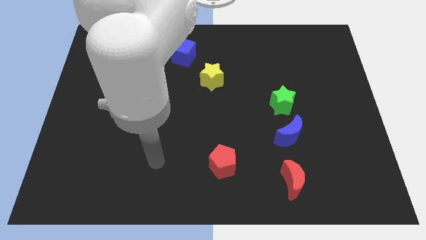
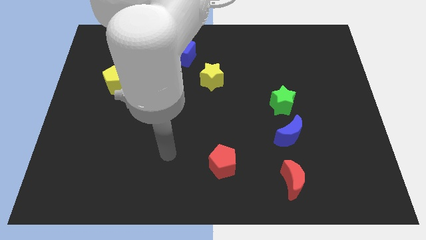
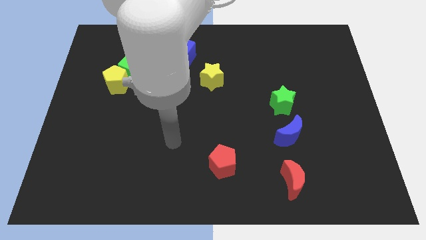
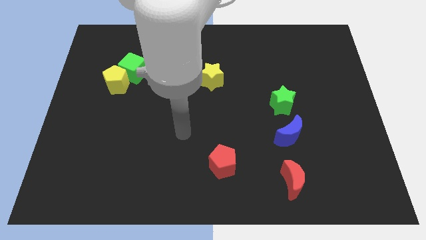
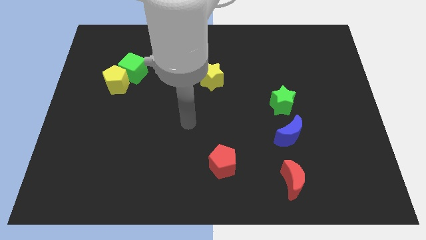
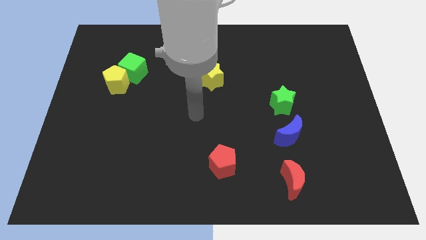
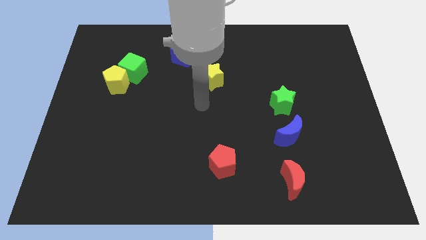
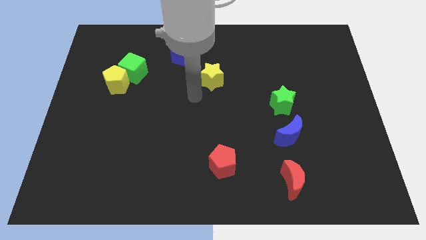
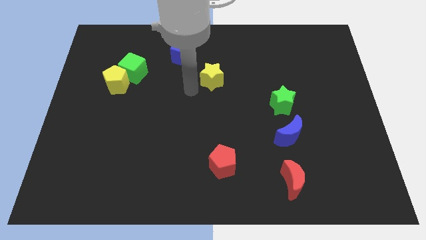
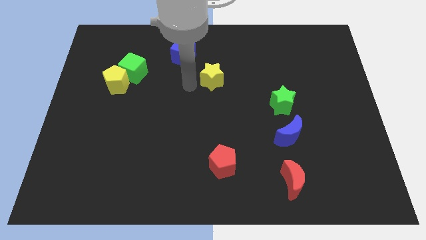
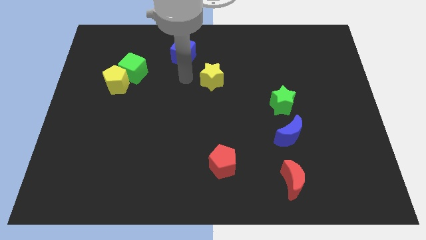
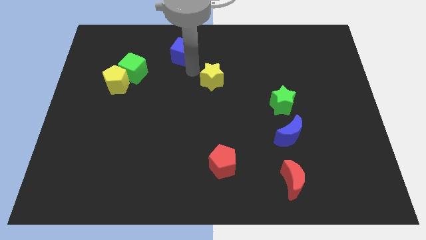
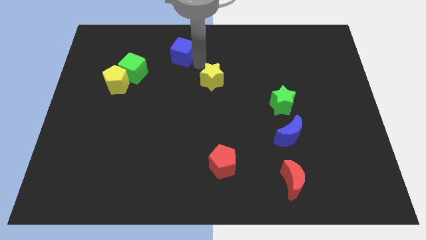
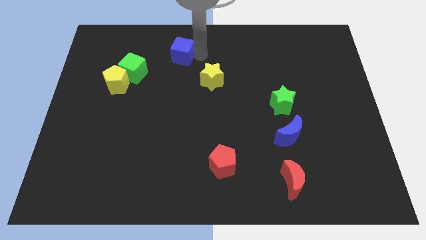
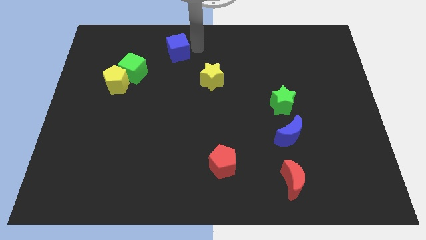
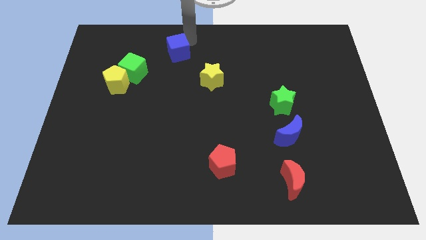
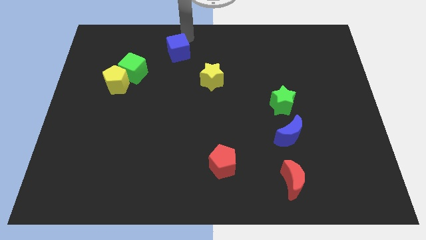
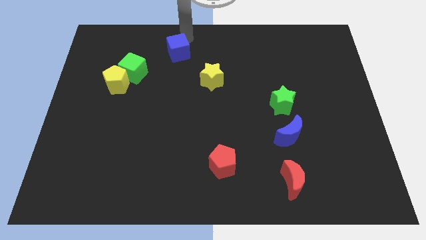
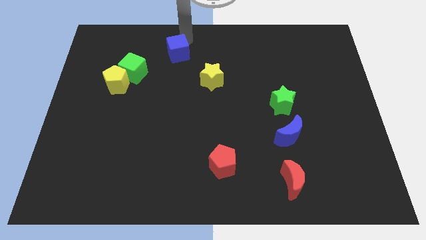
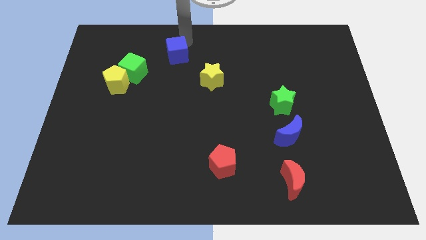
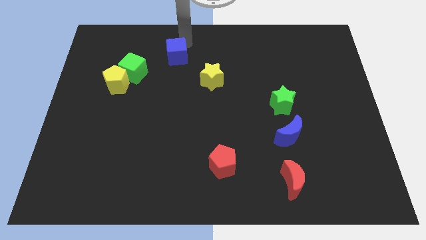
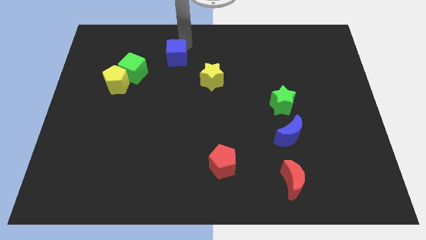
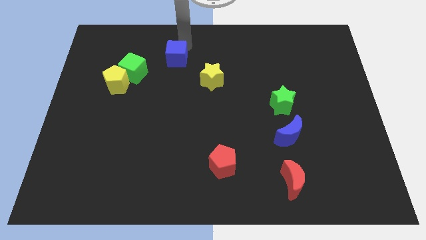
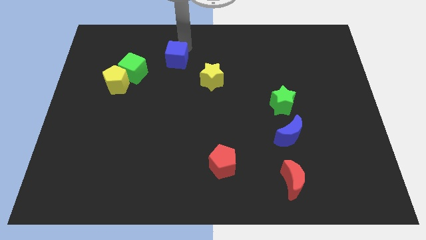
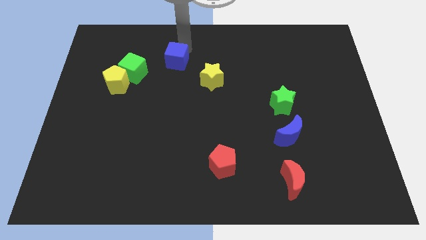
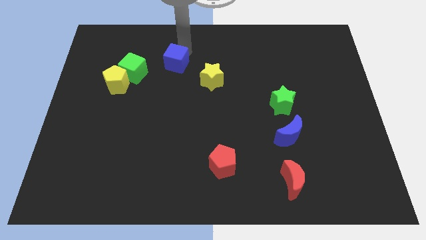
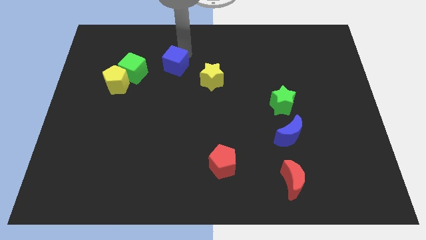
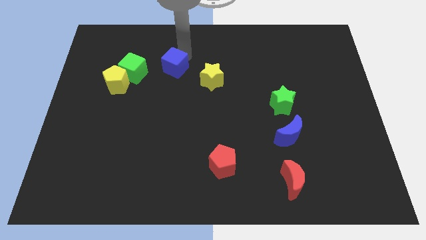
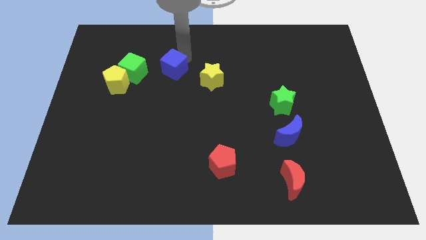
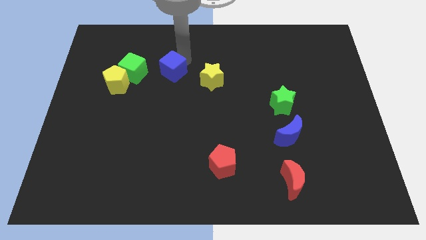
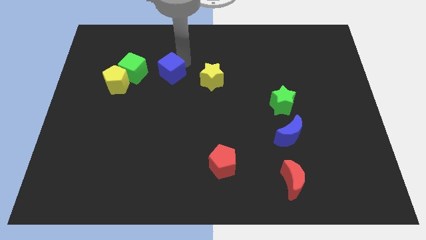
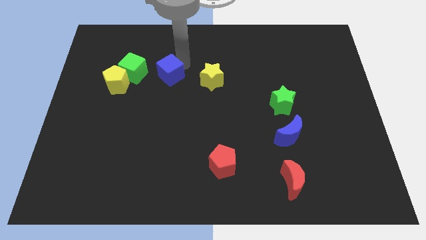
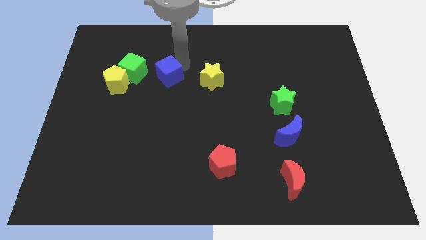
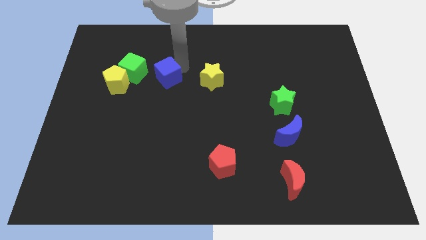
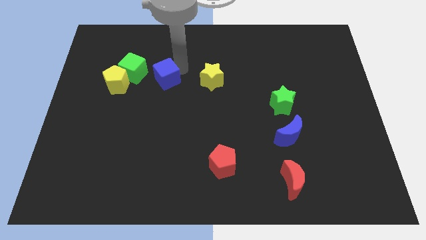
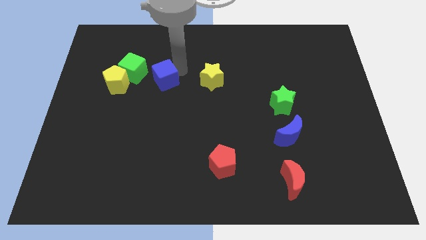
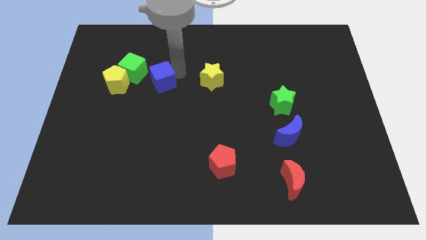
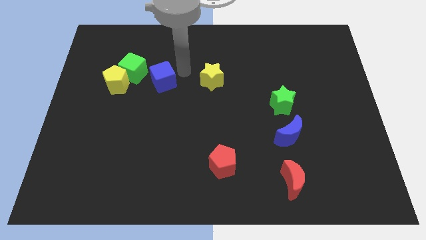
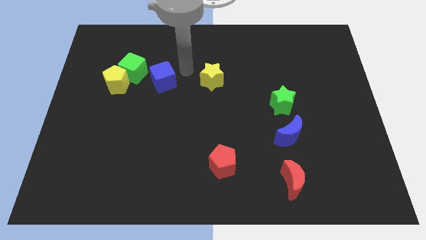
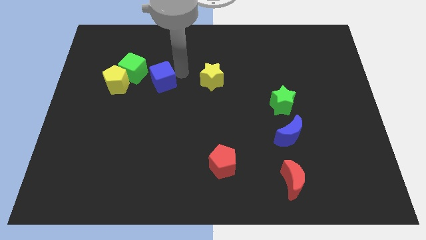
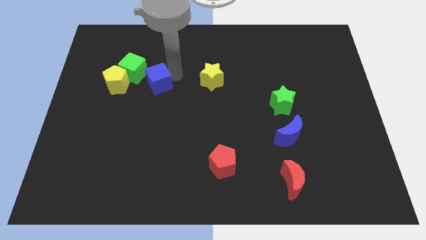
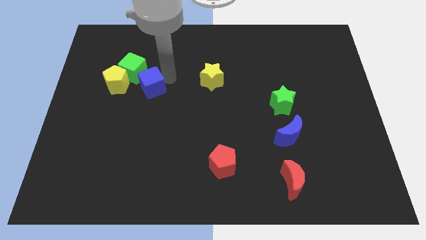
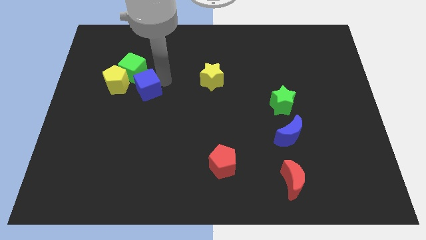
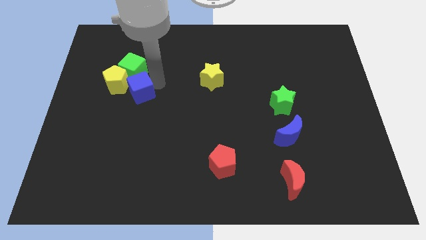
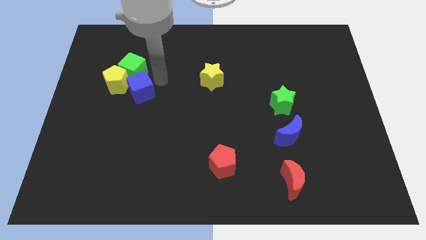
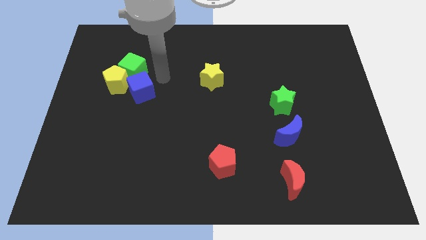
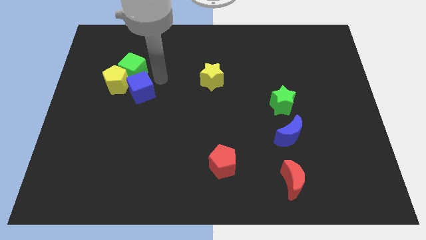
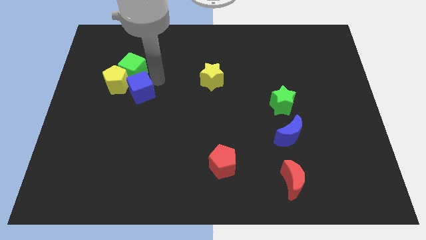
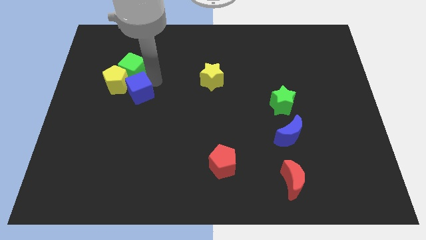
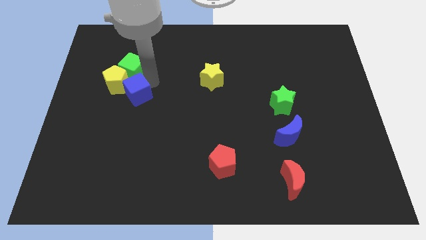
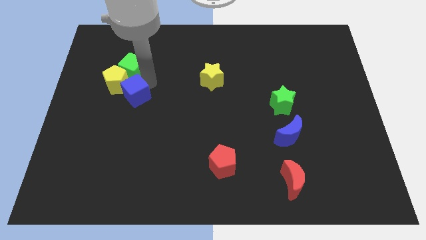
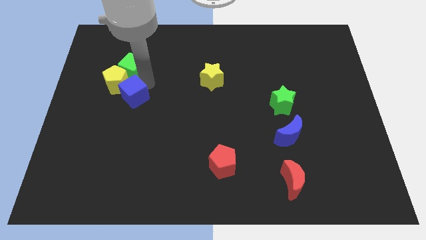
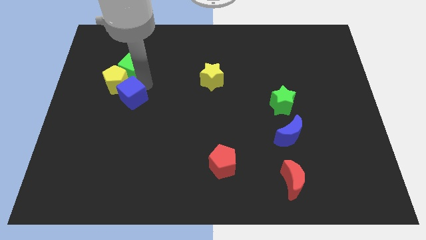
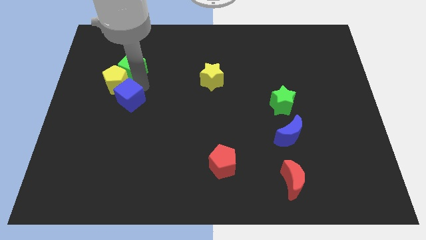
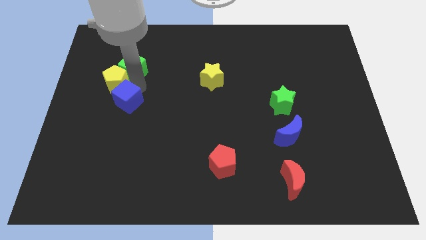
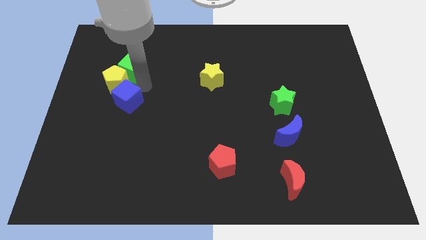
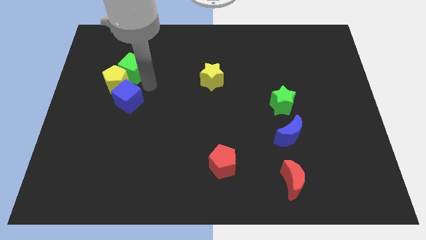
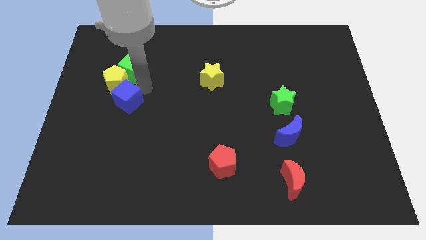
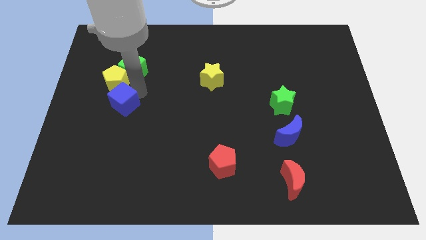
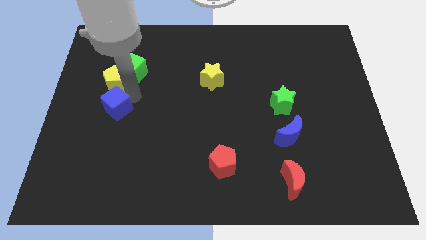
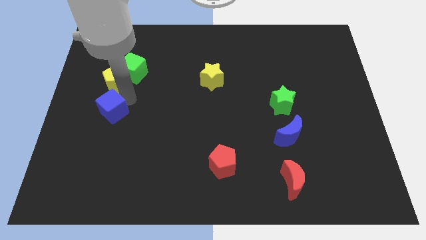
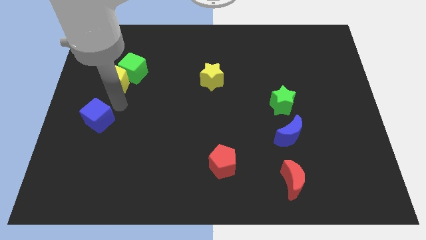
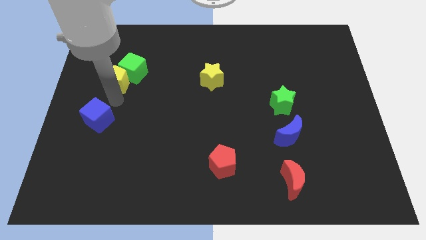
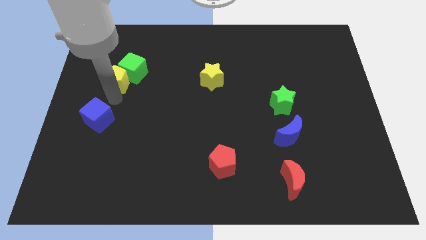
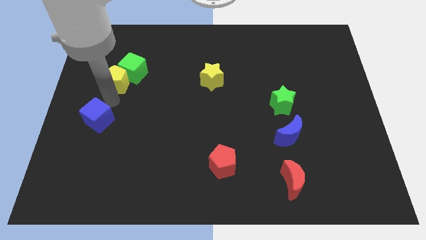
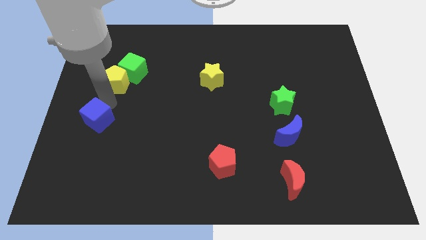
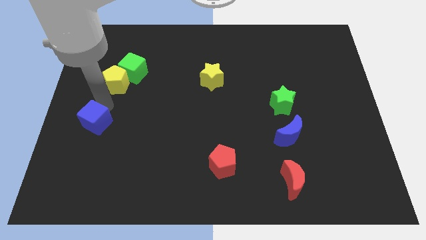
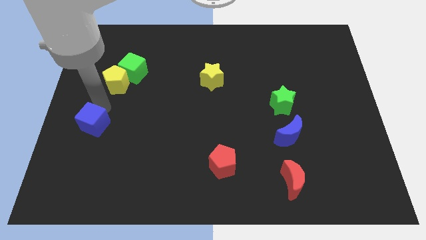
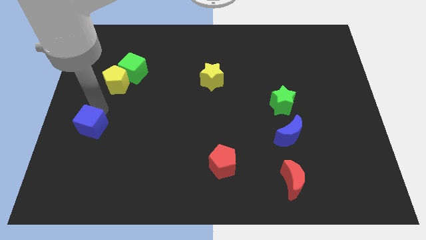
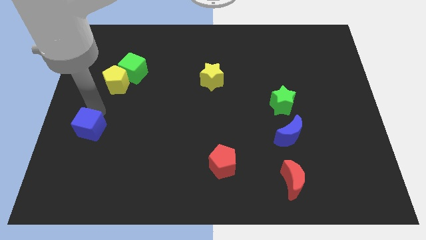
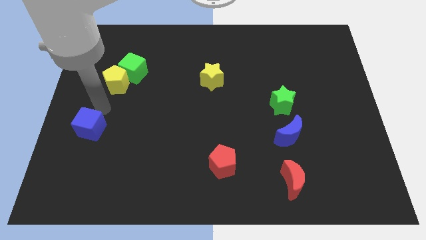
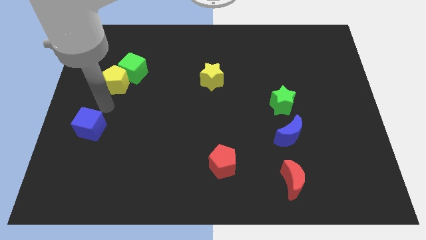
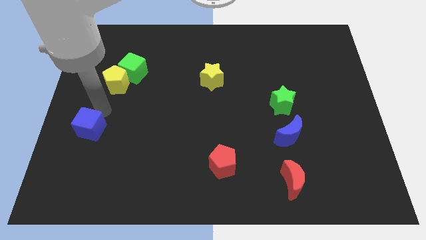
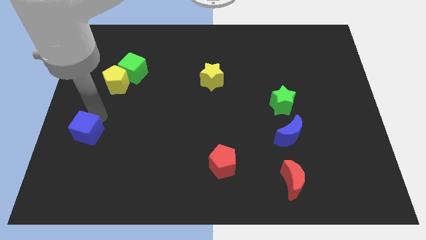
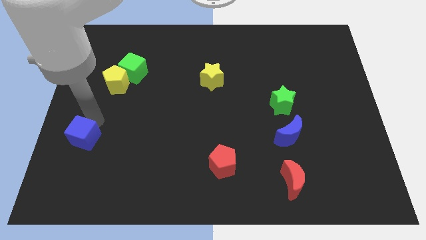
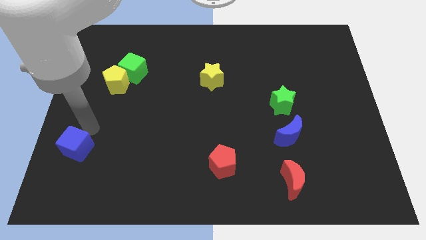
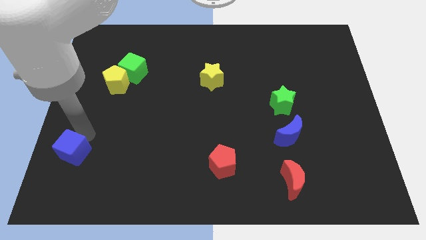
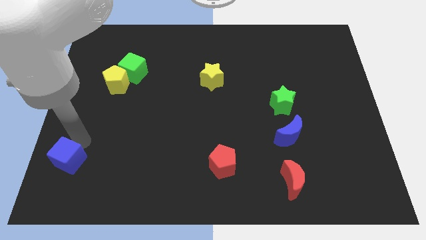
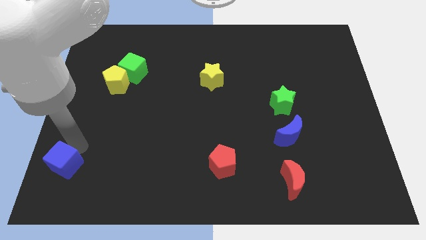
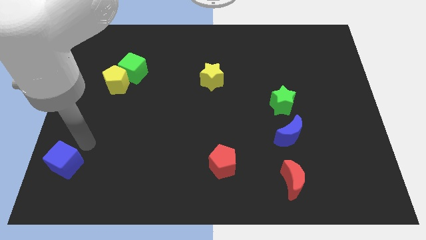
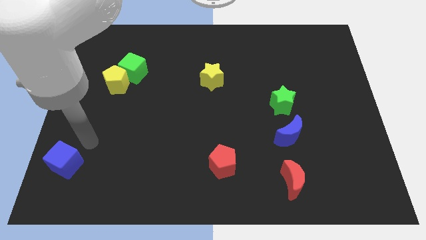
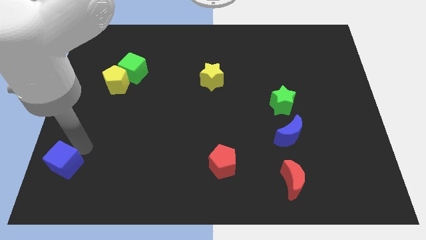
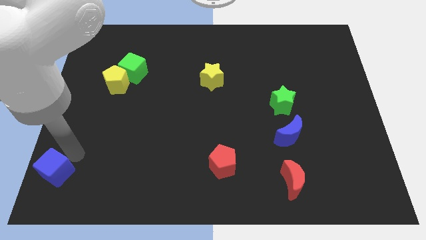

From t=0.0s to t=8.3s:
push the blue cube to the lower left corner

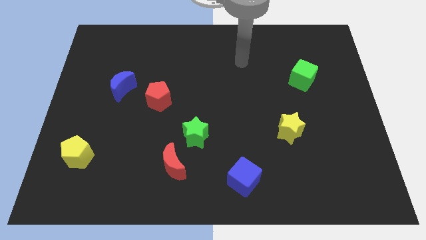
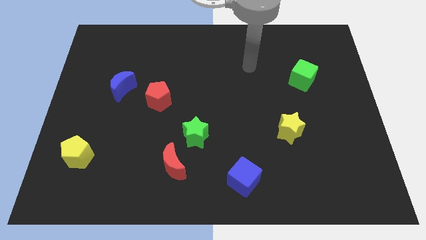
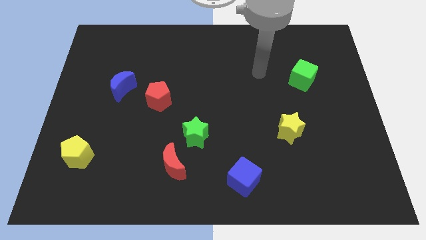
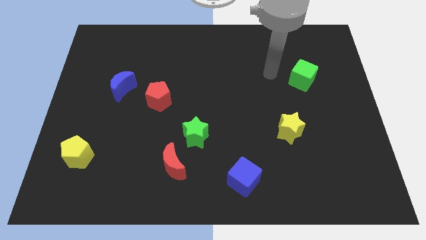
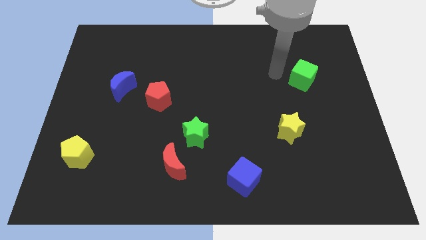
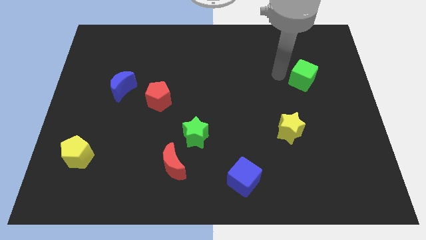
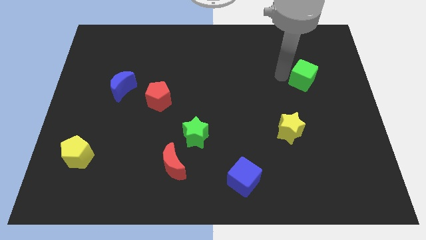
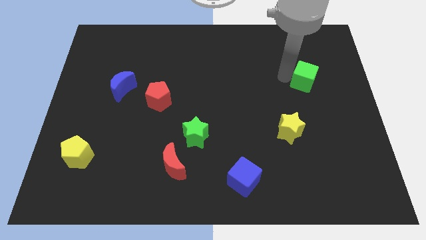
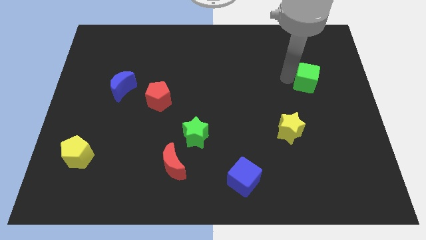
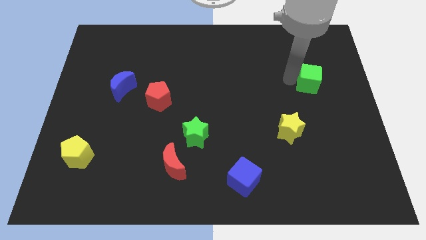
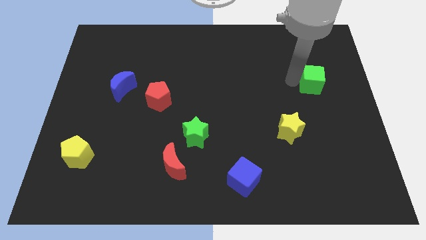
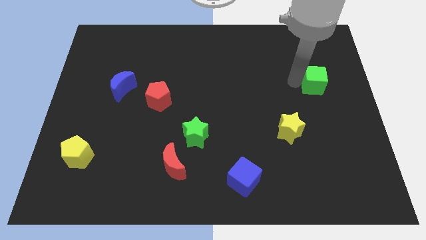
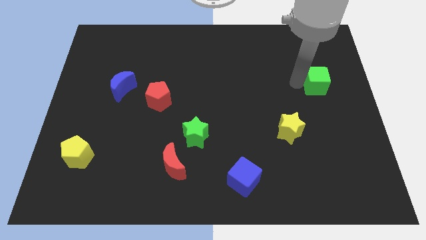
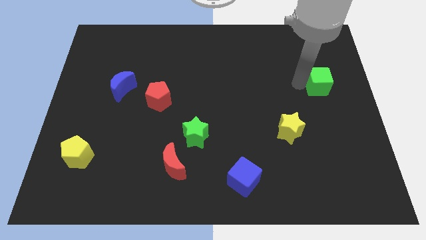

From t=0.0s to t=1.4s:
push the green cube to the center right
